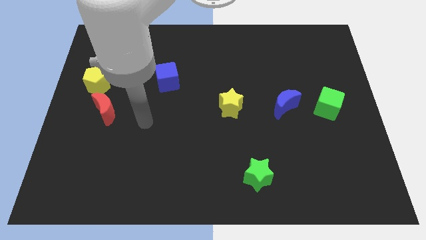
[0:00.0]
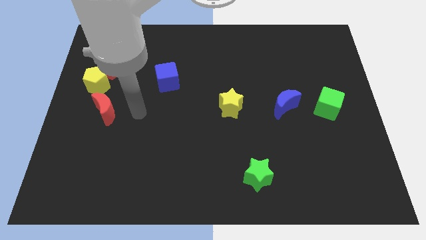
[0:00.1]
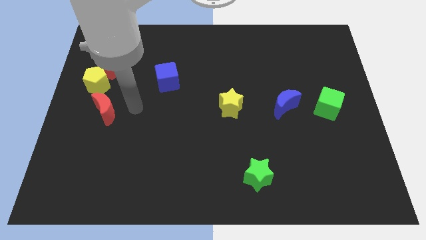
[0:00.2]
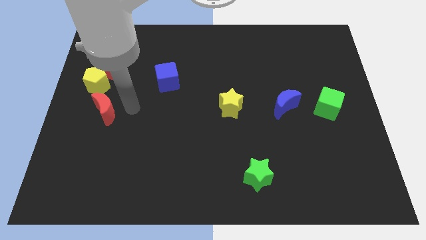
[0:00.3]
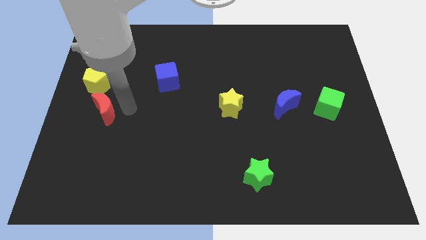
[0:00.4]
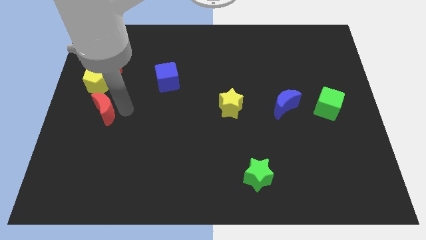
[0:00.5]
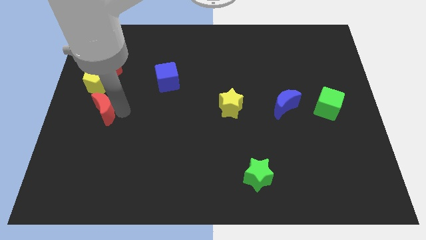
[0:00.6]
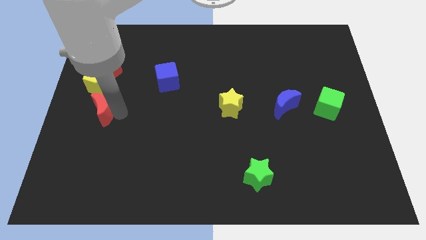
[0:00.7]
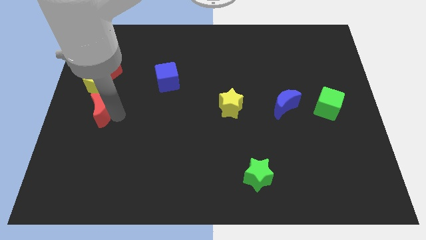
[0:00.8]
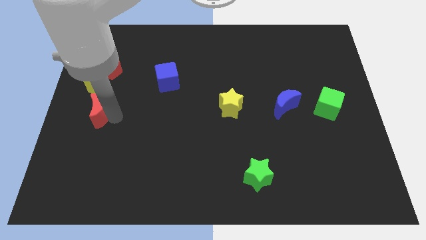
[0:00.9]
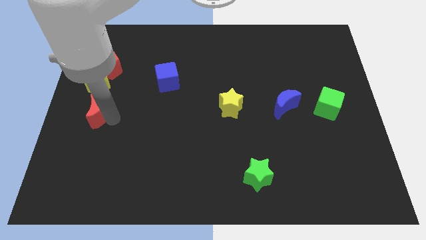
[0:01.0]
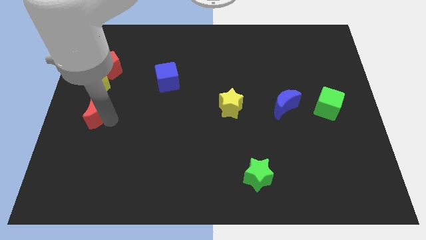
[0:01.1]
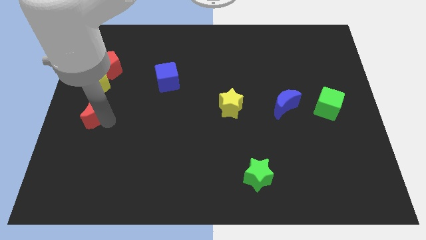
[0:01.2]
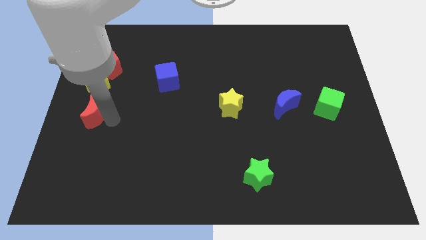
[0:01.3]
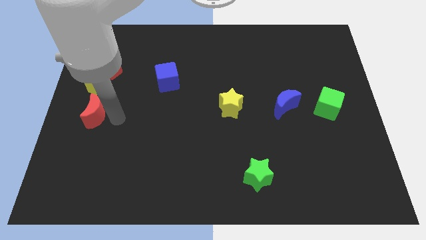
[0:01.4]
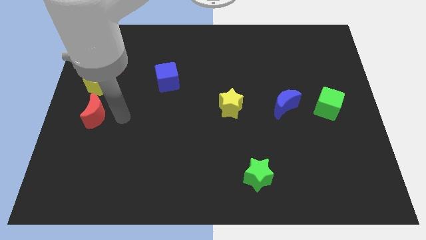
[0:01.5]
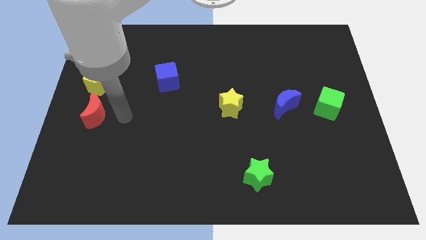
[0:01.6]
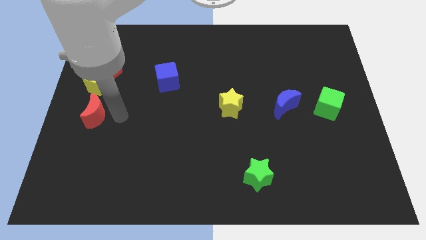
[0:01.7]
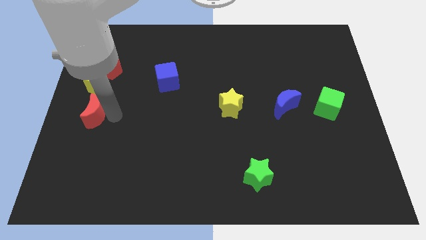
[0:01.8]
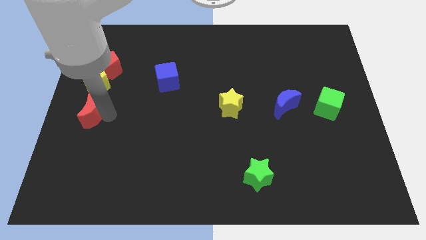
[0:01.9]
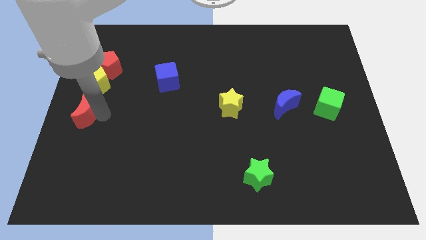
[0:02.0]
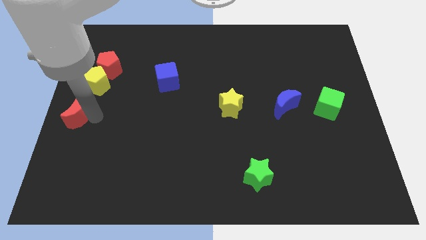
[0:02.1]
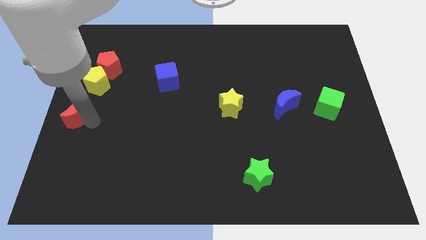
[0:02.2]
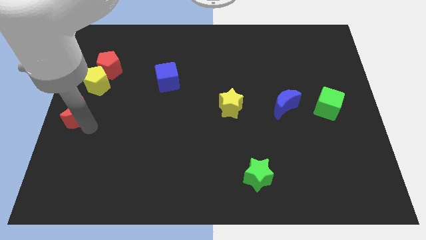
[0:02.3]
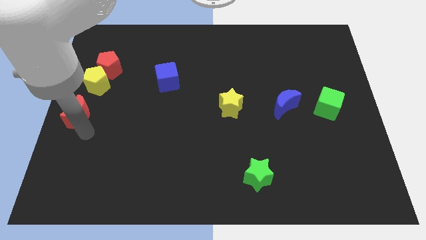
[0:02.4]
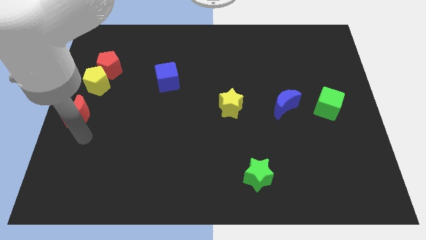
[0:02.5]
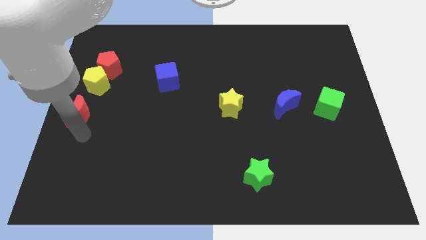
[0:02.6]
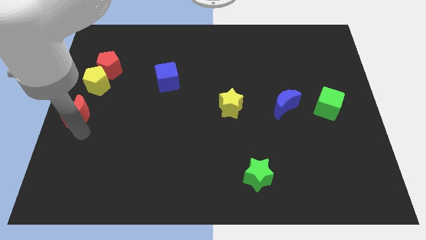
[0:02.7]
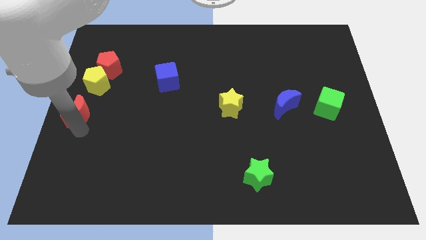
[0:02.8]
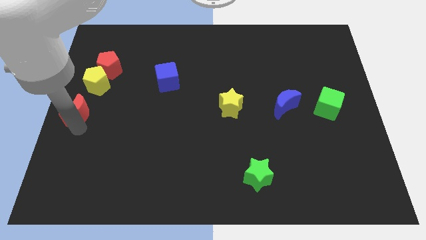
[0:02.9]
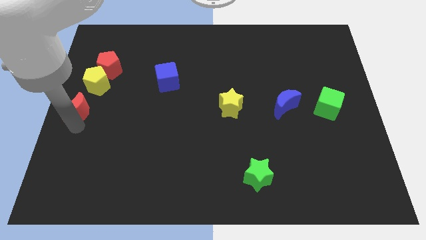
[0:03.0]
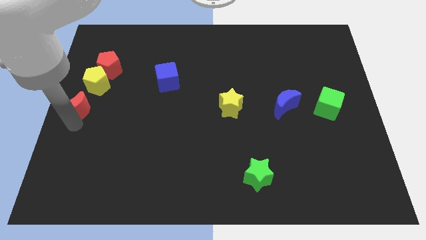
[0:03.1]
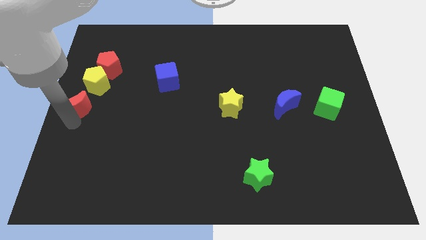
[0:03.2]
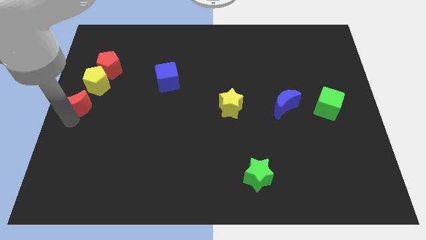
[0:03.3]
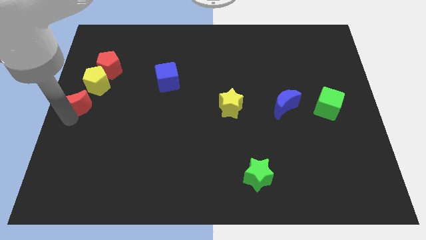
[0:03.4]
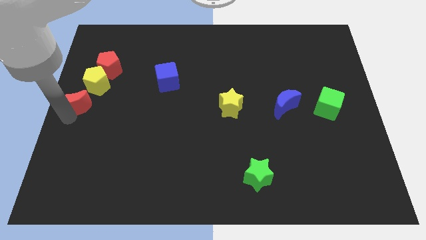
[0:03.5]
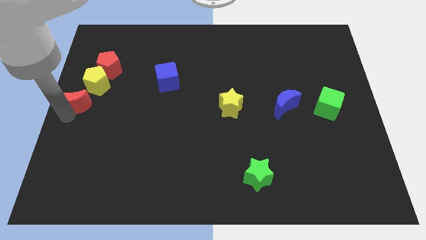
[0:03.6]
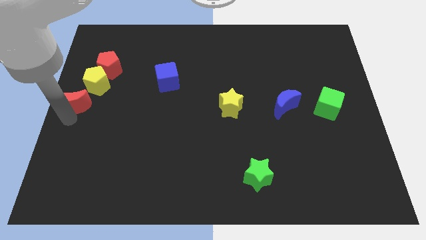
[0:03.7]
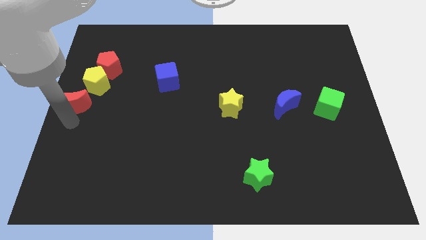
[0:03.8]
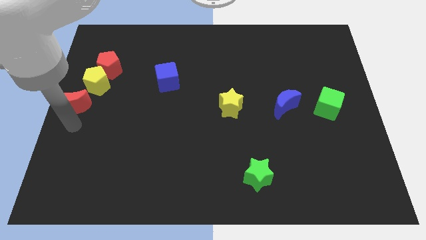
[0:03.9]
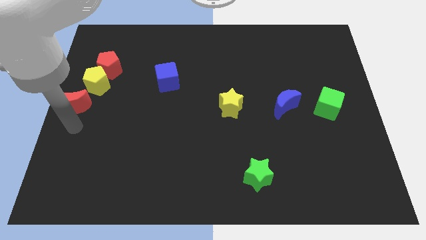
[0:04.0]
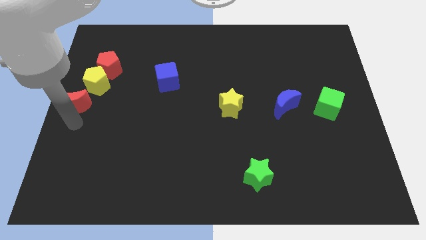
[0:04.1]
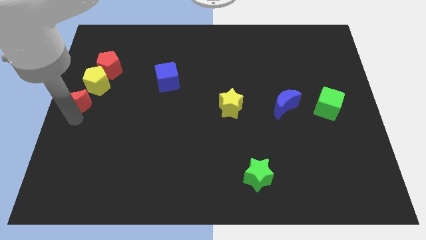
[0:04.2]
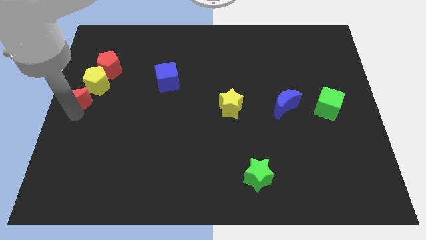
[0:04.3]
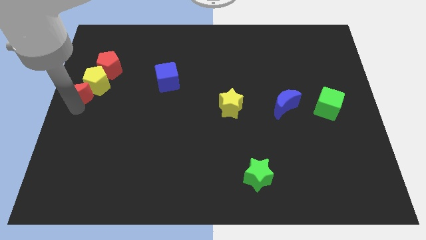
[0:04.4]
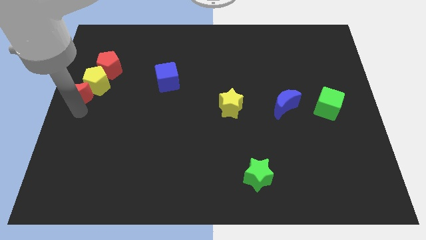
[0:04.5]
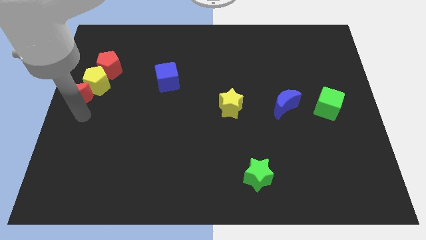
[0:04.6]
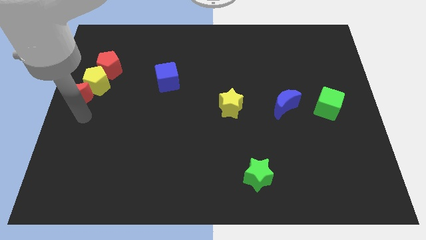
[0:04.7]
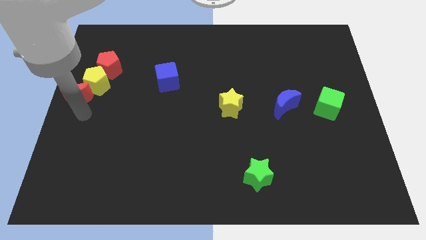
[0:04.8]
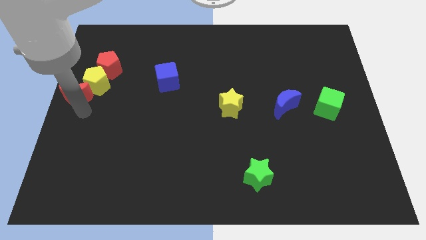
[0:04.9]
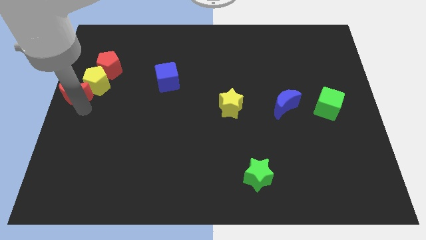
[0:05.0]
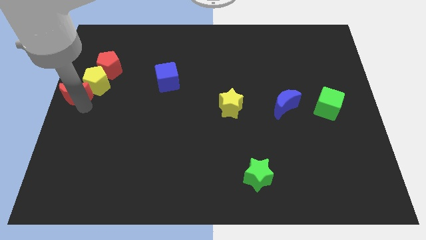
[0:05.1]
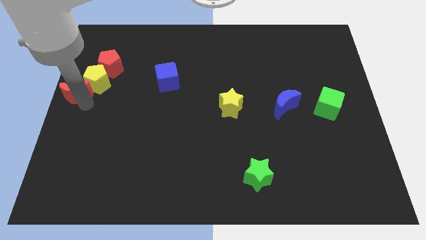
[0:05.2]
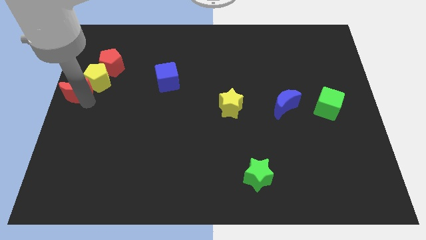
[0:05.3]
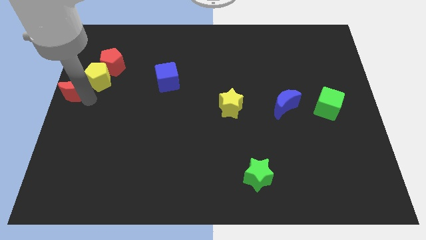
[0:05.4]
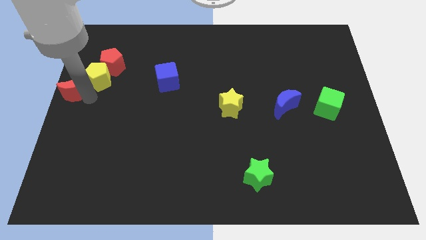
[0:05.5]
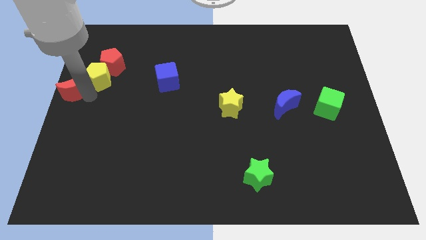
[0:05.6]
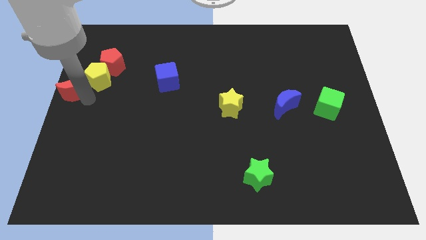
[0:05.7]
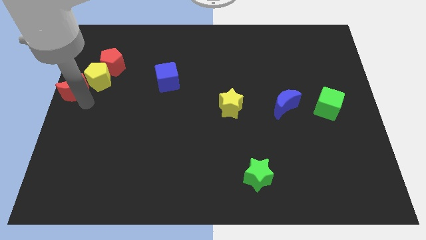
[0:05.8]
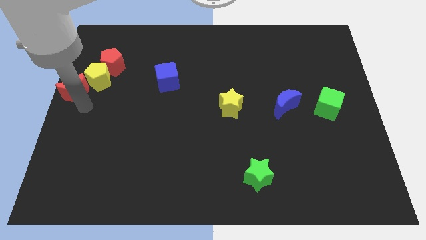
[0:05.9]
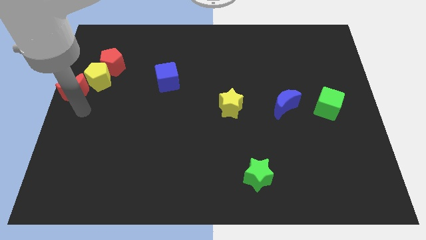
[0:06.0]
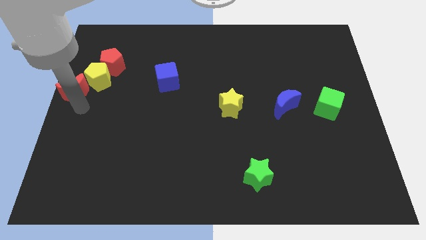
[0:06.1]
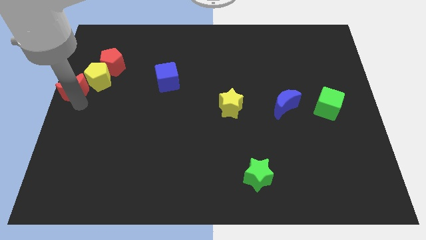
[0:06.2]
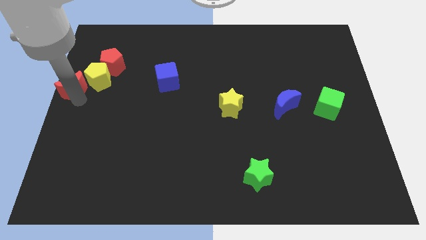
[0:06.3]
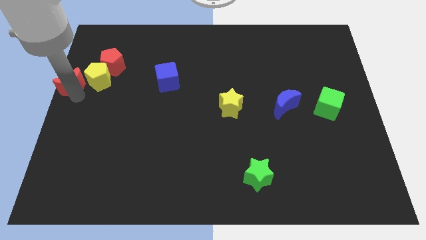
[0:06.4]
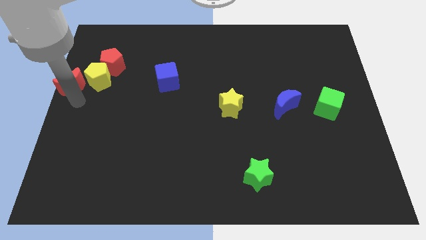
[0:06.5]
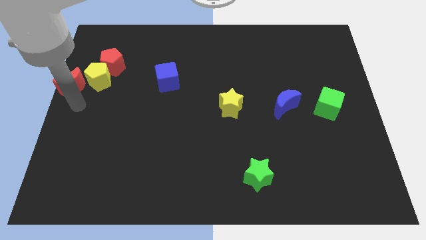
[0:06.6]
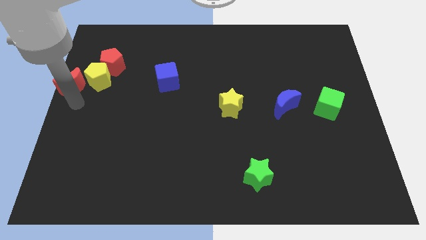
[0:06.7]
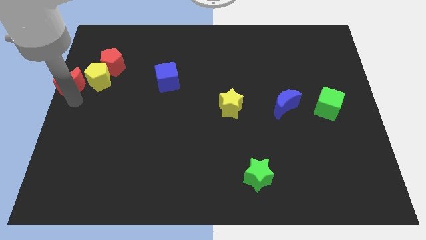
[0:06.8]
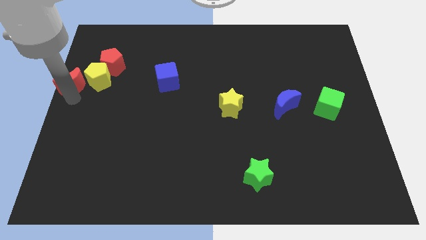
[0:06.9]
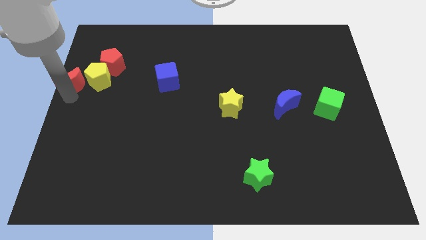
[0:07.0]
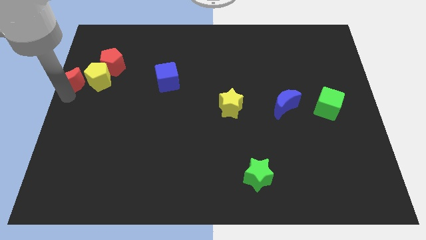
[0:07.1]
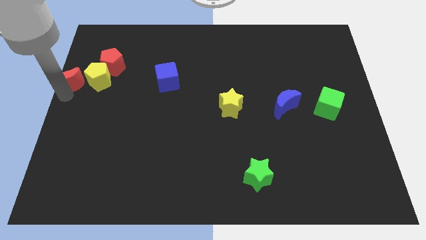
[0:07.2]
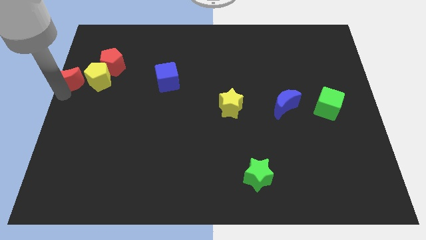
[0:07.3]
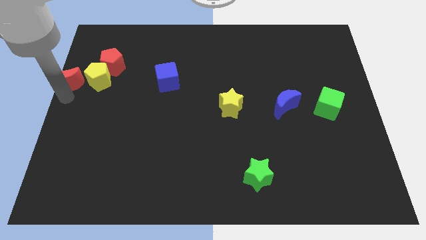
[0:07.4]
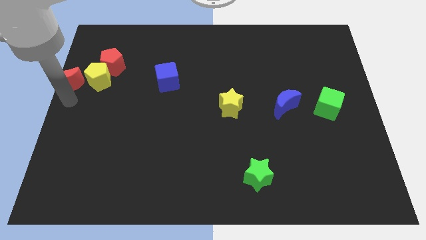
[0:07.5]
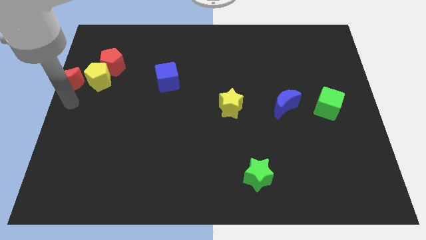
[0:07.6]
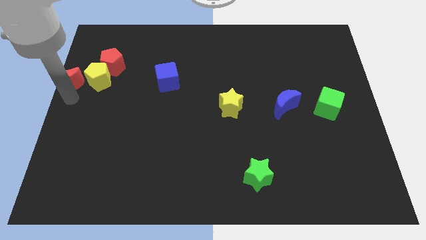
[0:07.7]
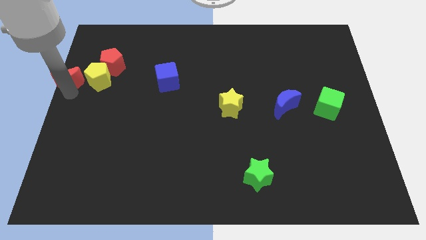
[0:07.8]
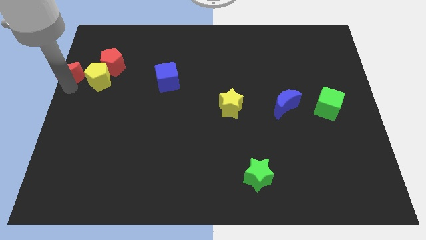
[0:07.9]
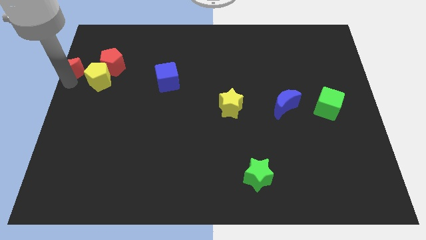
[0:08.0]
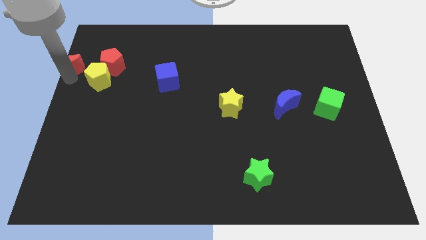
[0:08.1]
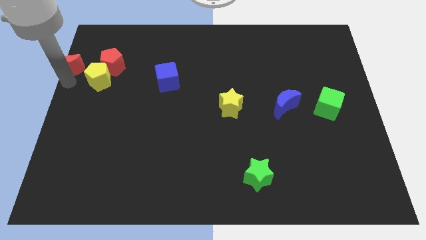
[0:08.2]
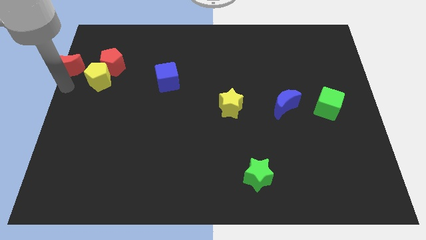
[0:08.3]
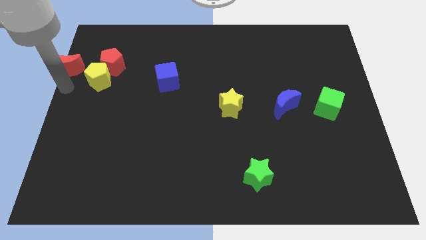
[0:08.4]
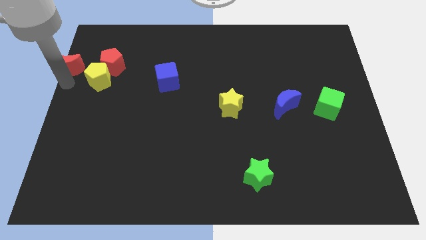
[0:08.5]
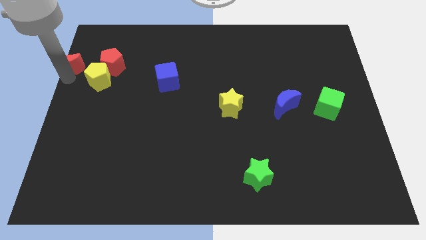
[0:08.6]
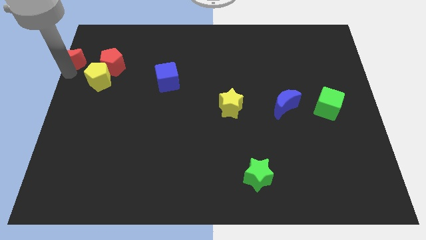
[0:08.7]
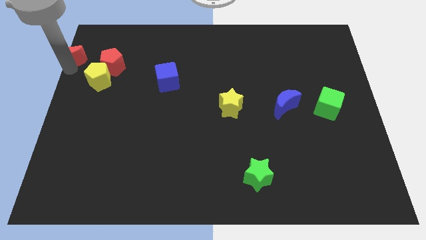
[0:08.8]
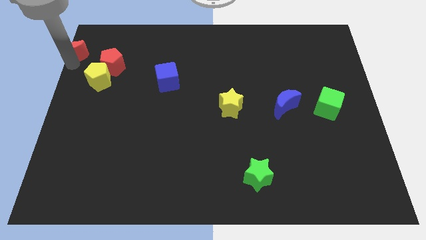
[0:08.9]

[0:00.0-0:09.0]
put the red moon to the top left
